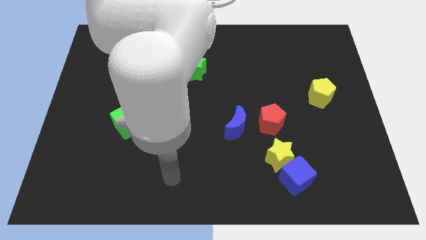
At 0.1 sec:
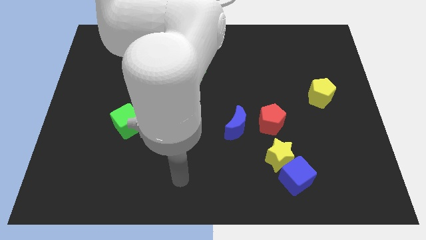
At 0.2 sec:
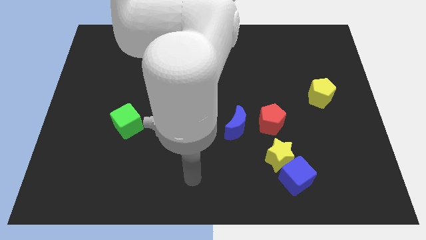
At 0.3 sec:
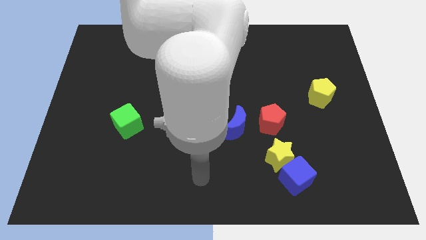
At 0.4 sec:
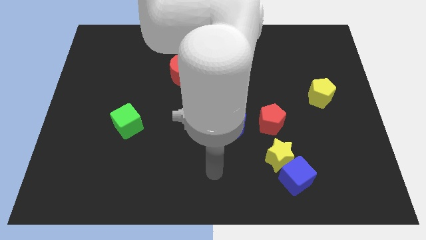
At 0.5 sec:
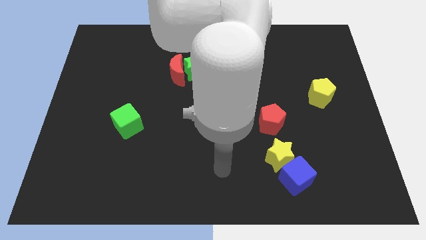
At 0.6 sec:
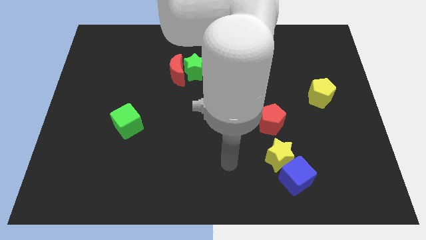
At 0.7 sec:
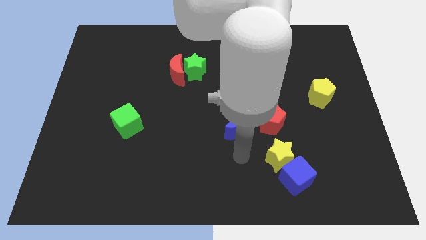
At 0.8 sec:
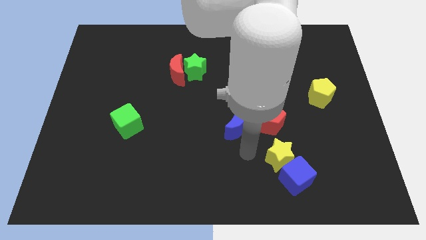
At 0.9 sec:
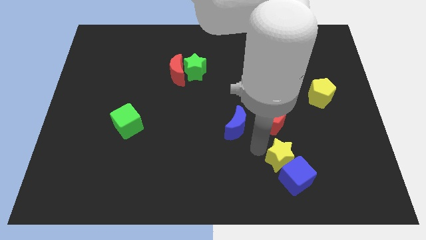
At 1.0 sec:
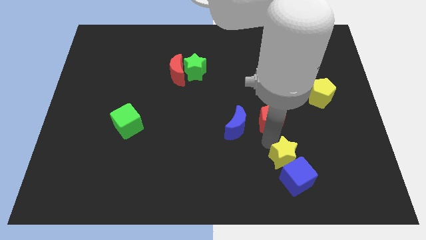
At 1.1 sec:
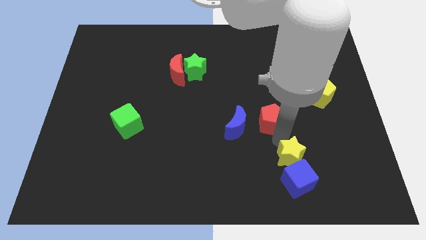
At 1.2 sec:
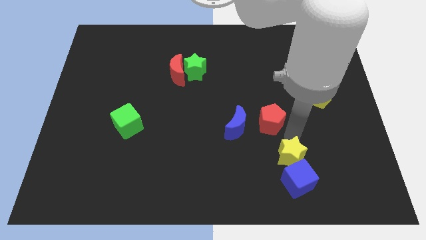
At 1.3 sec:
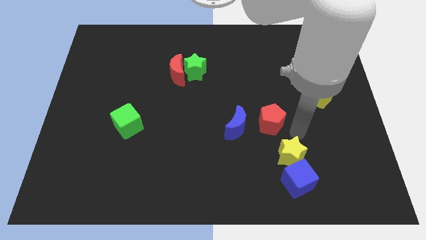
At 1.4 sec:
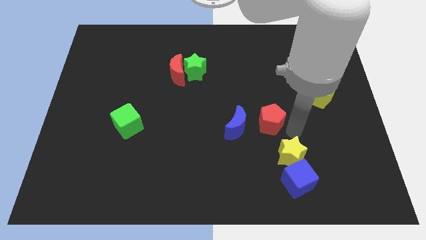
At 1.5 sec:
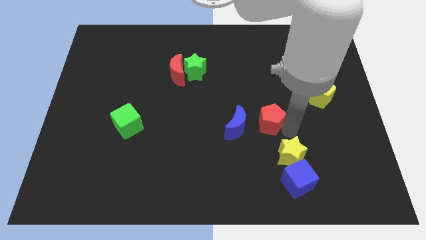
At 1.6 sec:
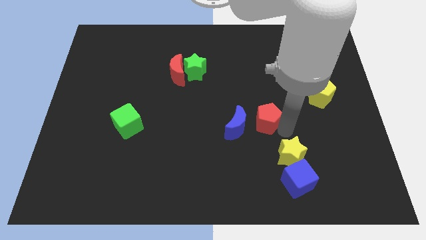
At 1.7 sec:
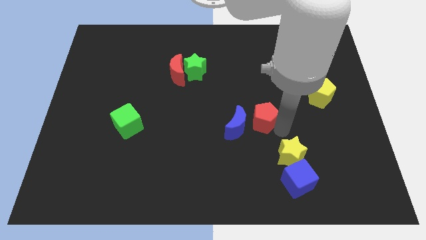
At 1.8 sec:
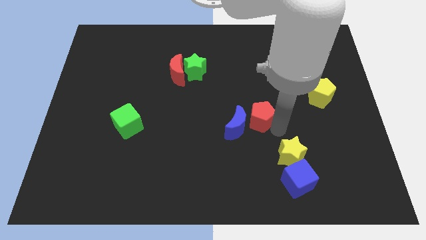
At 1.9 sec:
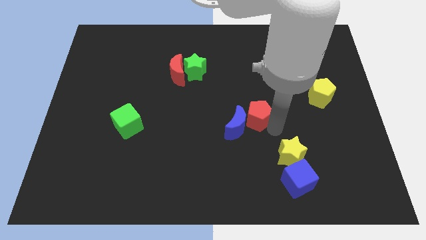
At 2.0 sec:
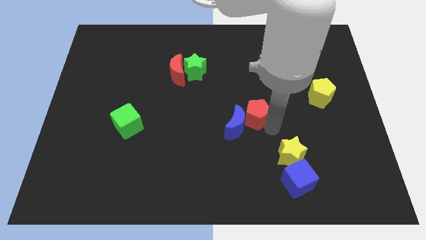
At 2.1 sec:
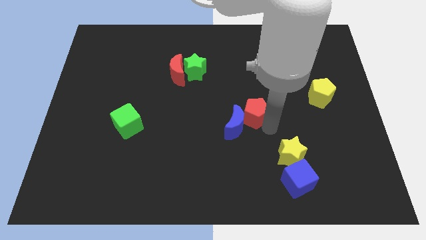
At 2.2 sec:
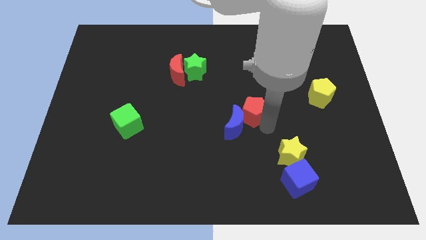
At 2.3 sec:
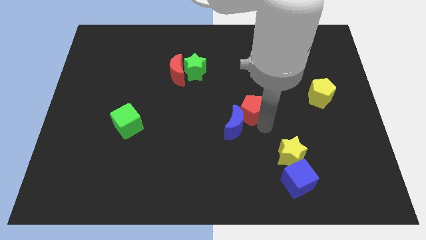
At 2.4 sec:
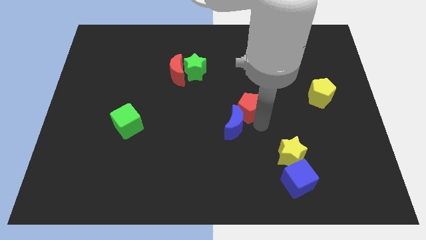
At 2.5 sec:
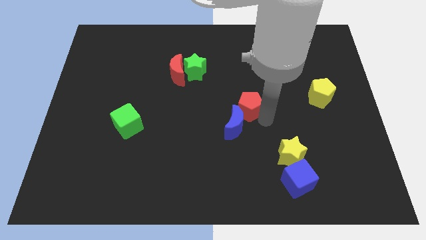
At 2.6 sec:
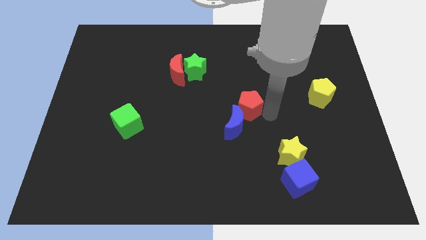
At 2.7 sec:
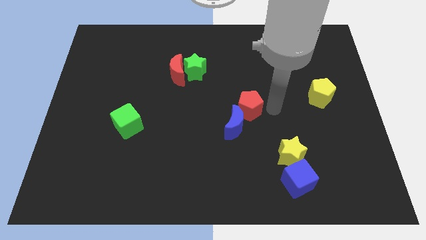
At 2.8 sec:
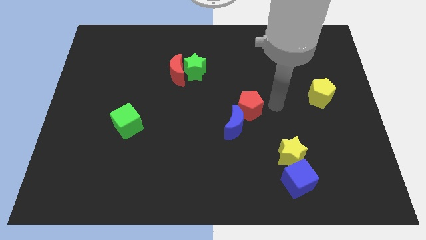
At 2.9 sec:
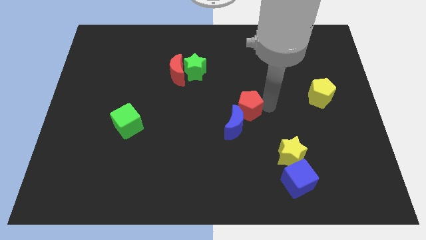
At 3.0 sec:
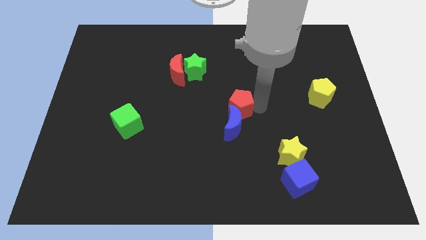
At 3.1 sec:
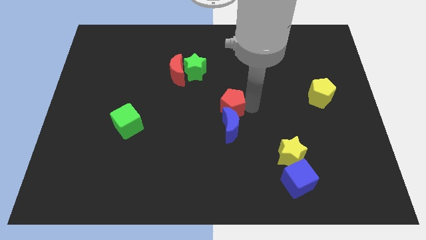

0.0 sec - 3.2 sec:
move the red pentagon a bit to the left

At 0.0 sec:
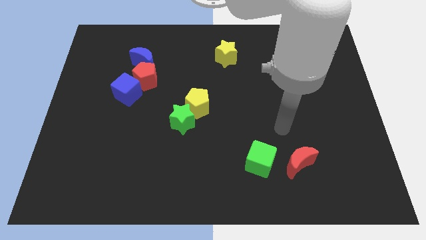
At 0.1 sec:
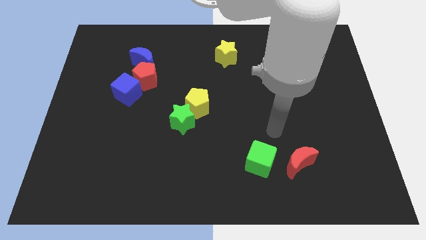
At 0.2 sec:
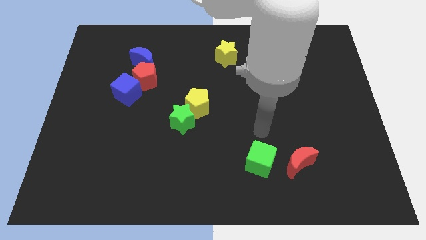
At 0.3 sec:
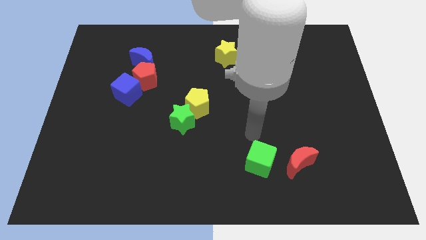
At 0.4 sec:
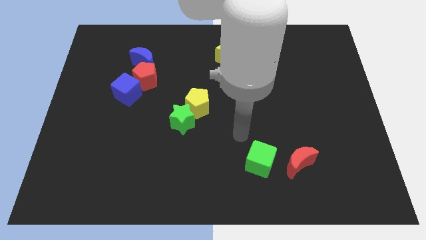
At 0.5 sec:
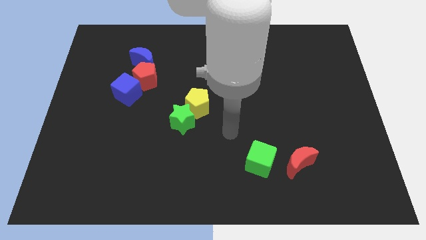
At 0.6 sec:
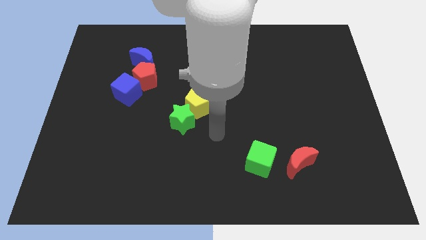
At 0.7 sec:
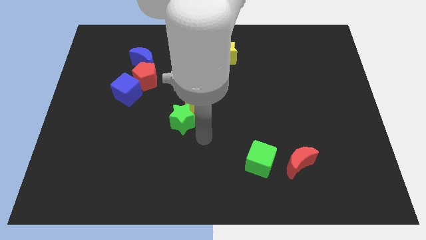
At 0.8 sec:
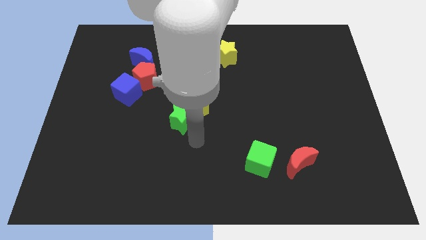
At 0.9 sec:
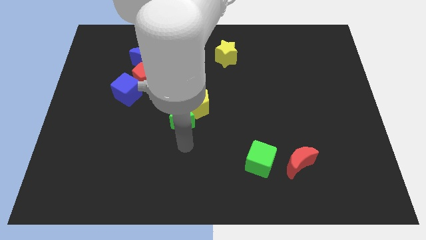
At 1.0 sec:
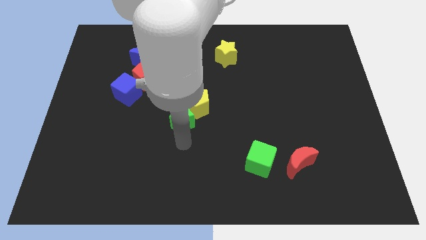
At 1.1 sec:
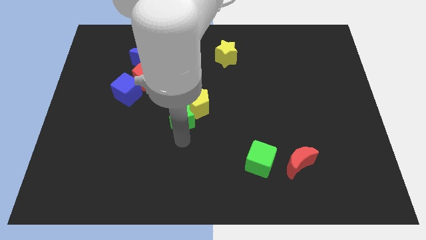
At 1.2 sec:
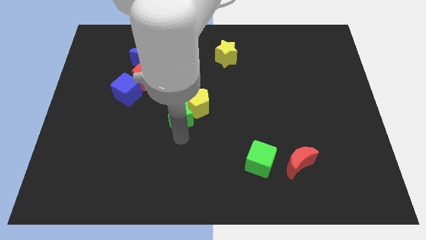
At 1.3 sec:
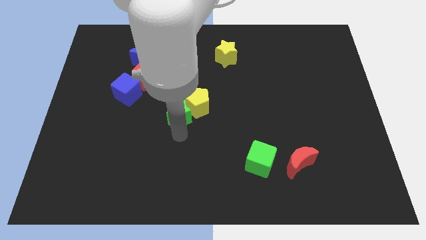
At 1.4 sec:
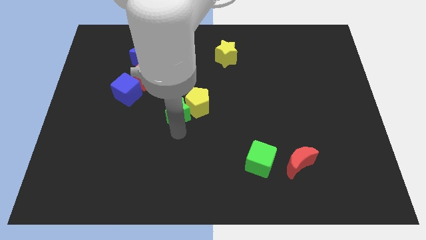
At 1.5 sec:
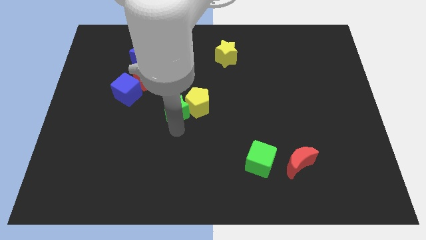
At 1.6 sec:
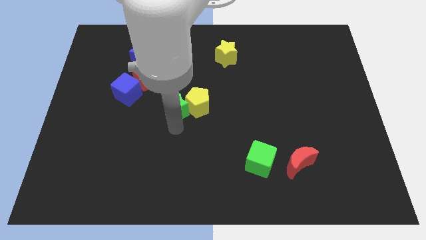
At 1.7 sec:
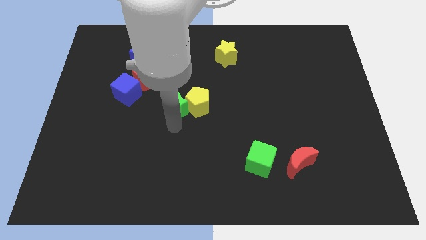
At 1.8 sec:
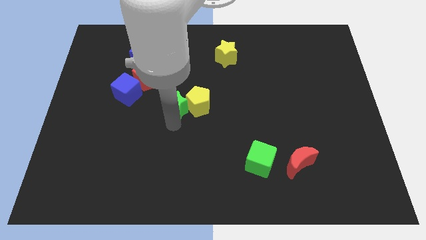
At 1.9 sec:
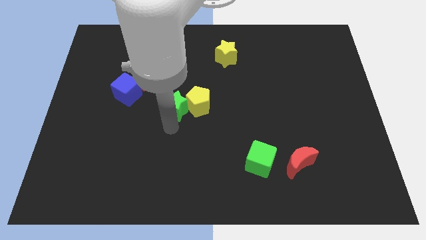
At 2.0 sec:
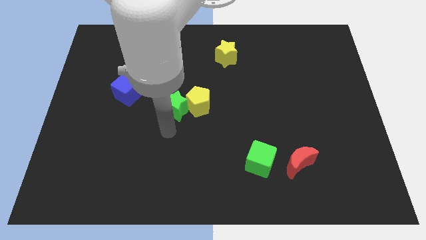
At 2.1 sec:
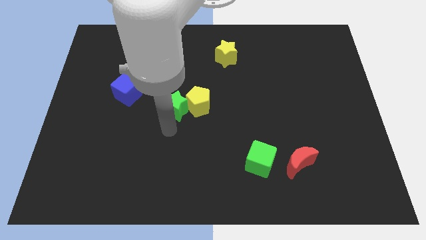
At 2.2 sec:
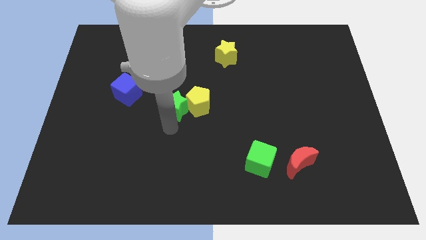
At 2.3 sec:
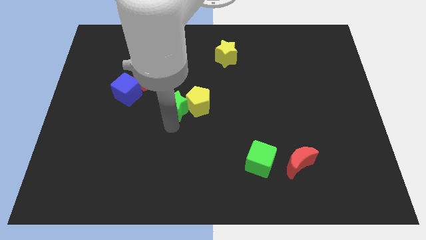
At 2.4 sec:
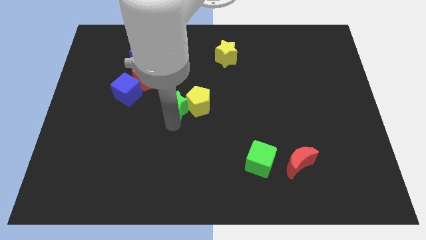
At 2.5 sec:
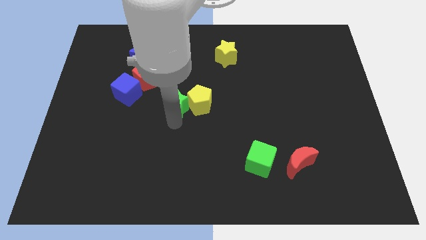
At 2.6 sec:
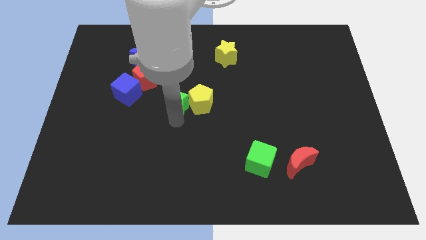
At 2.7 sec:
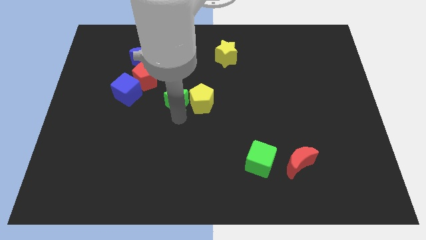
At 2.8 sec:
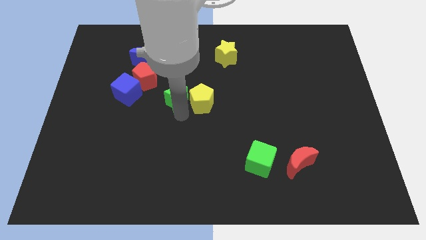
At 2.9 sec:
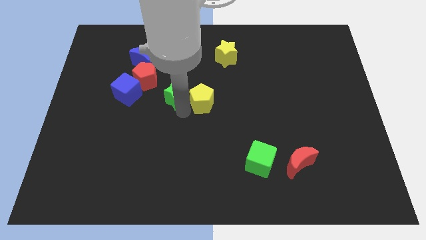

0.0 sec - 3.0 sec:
move the green star a bit up

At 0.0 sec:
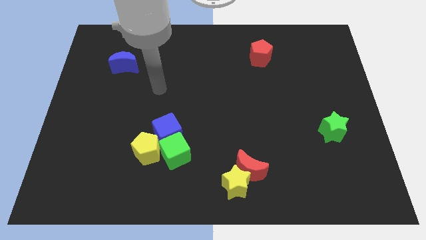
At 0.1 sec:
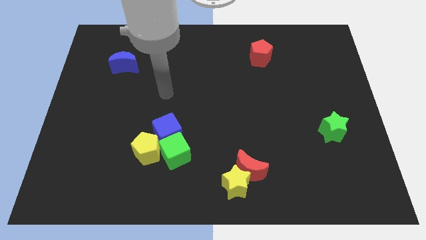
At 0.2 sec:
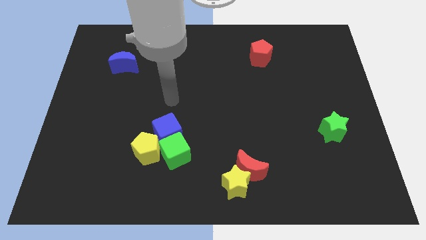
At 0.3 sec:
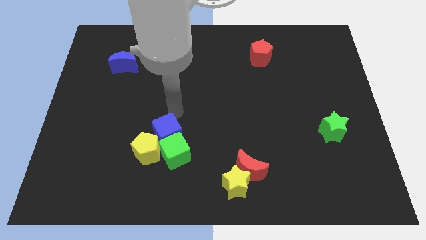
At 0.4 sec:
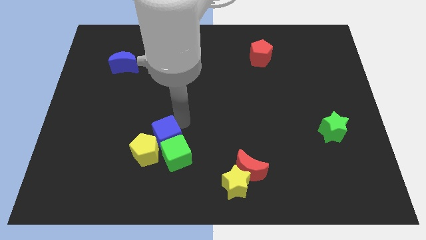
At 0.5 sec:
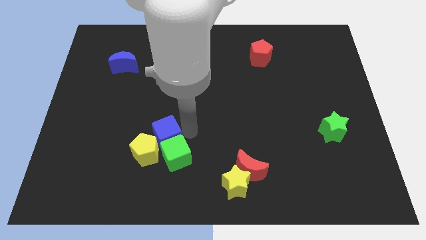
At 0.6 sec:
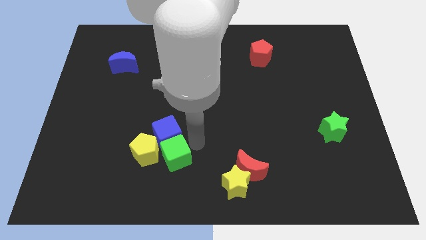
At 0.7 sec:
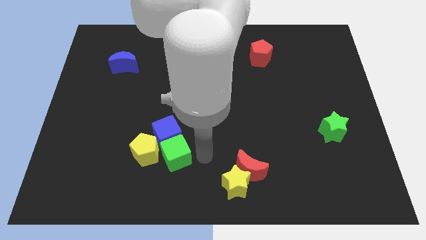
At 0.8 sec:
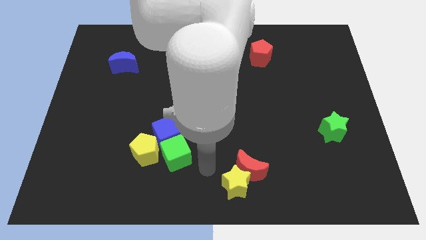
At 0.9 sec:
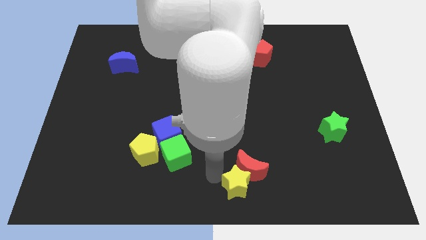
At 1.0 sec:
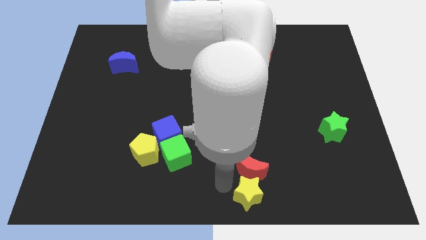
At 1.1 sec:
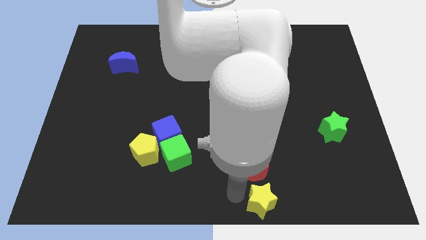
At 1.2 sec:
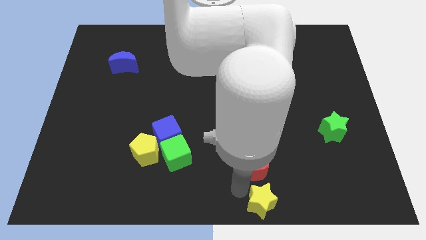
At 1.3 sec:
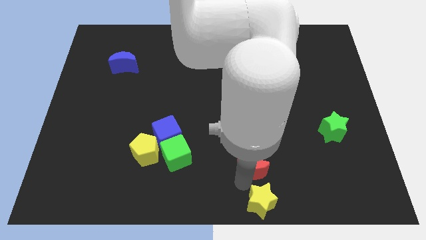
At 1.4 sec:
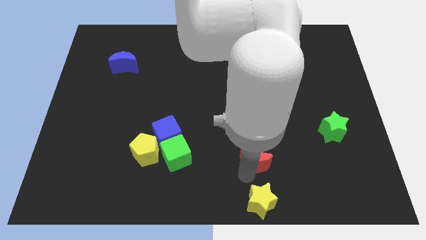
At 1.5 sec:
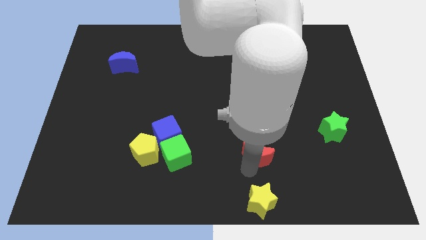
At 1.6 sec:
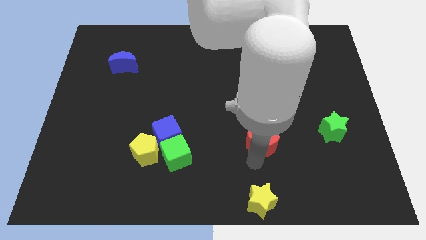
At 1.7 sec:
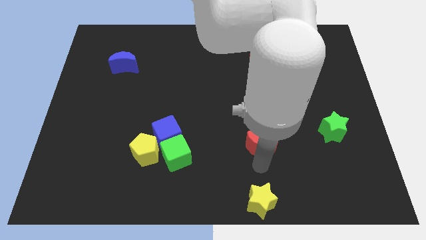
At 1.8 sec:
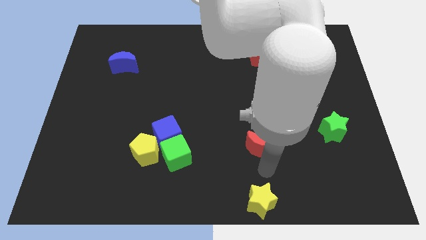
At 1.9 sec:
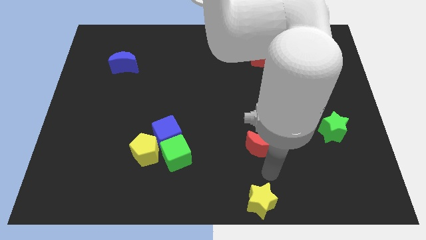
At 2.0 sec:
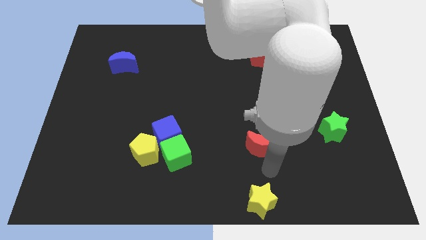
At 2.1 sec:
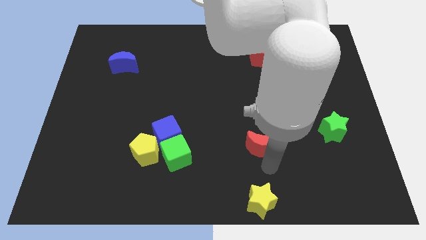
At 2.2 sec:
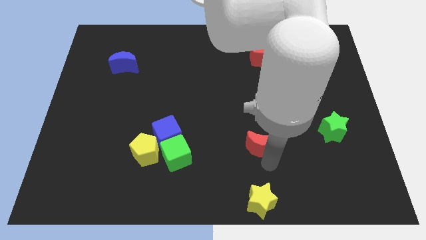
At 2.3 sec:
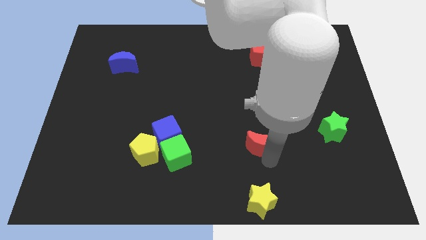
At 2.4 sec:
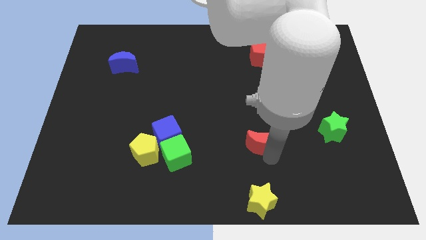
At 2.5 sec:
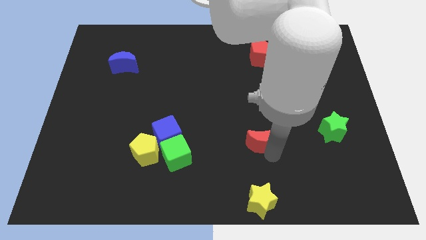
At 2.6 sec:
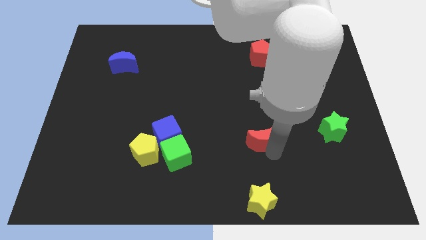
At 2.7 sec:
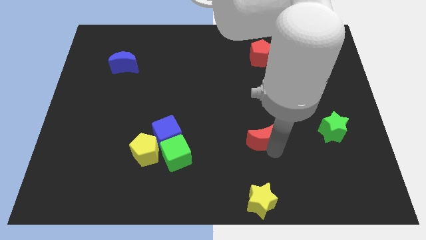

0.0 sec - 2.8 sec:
slide the red moon upwards a bit
